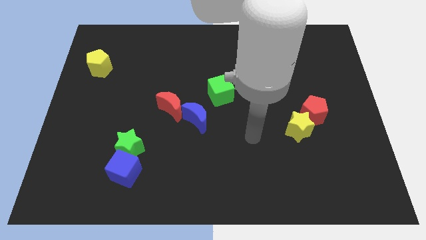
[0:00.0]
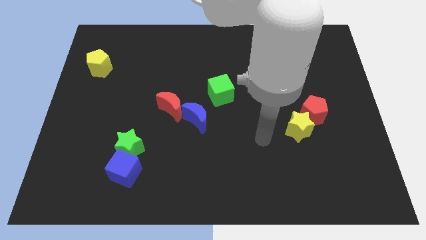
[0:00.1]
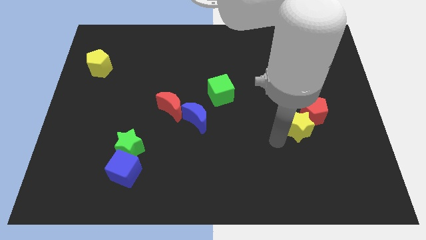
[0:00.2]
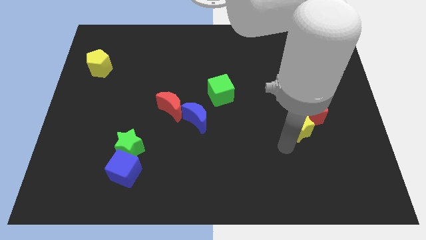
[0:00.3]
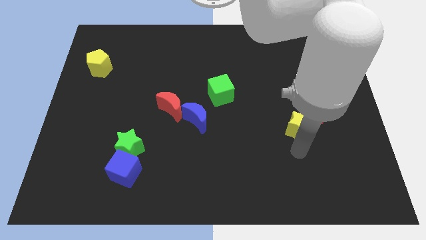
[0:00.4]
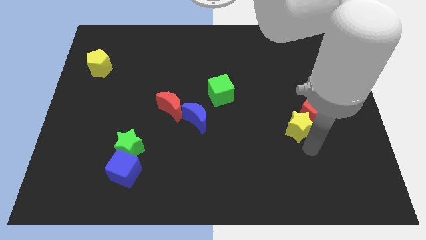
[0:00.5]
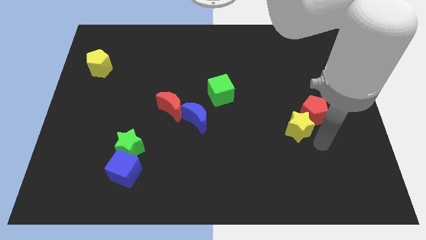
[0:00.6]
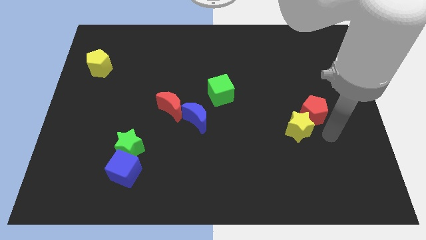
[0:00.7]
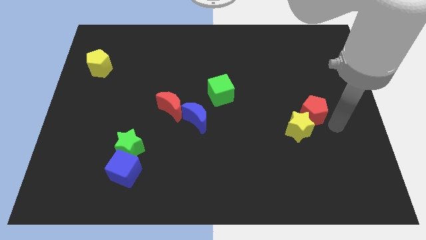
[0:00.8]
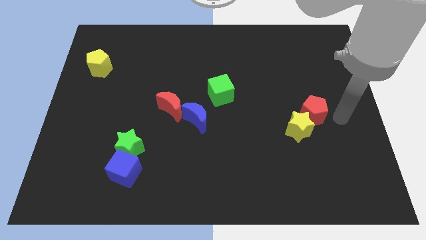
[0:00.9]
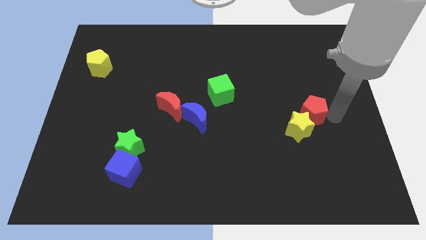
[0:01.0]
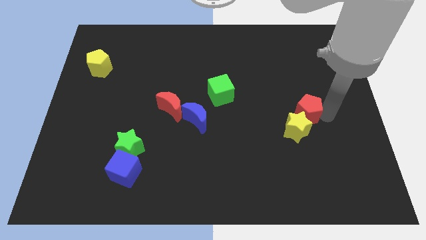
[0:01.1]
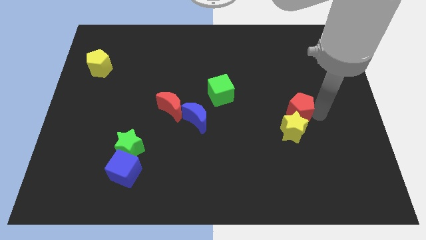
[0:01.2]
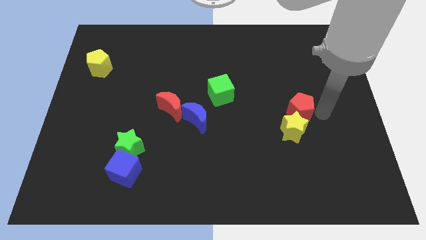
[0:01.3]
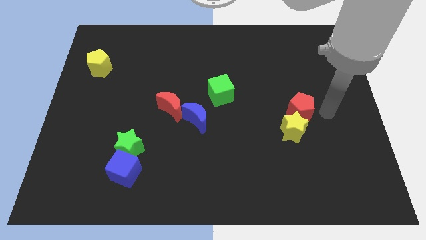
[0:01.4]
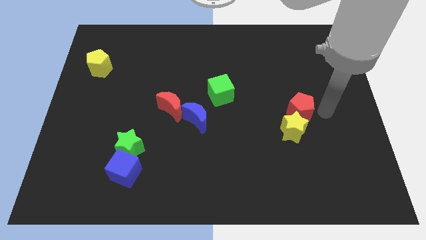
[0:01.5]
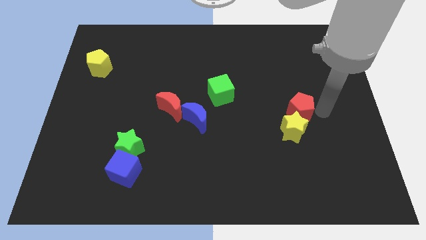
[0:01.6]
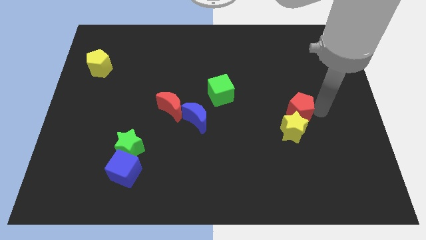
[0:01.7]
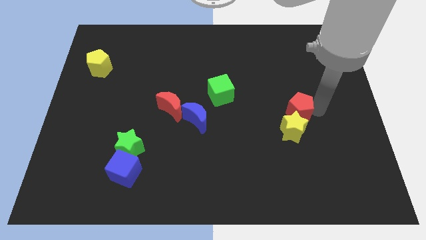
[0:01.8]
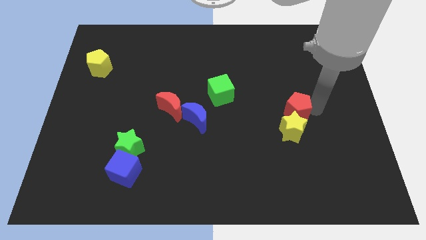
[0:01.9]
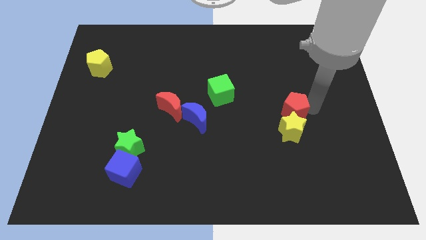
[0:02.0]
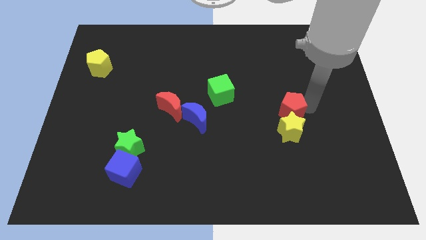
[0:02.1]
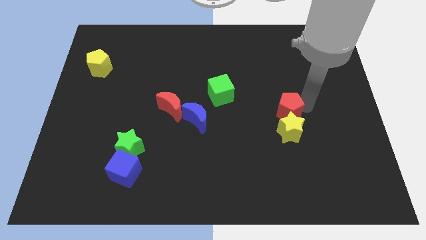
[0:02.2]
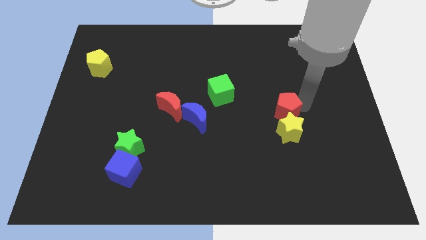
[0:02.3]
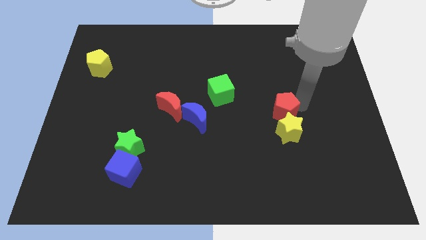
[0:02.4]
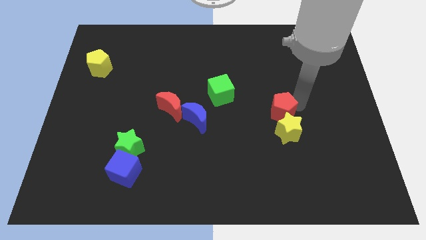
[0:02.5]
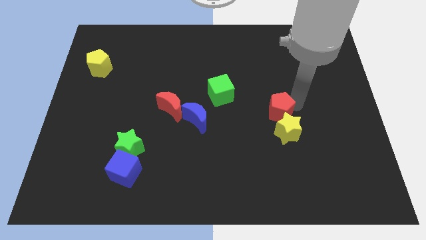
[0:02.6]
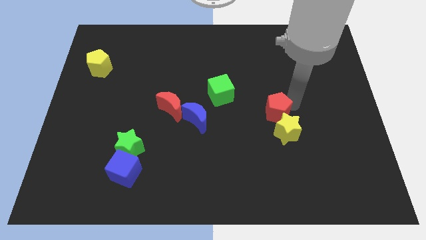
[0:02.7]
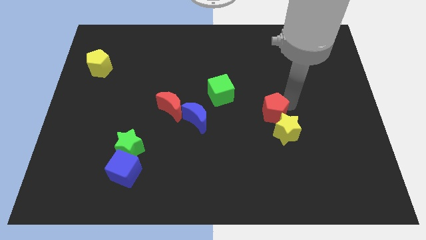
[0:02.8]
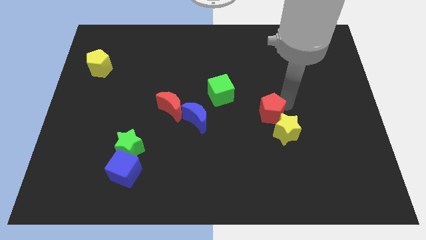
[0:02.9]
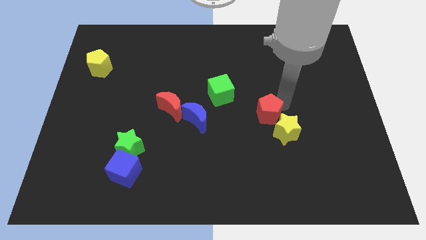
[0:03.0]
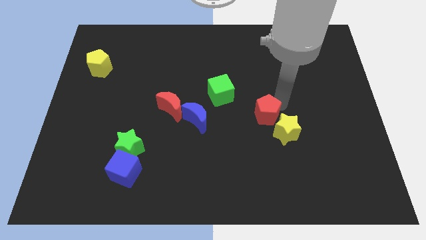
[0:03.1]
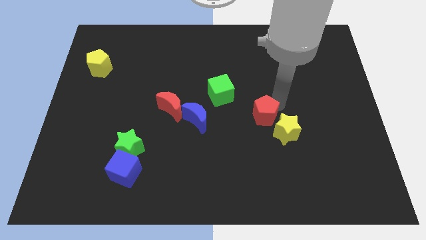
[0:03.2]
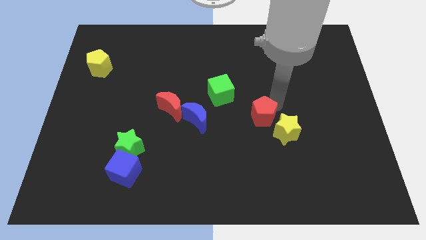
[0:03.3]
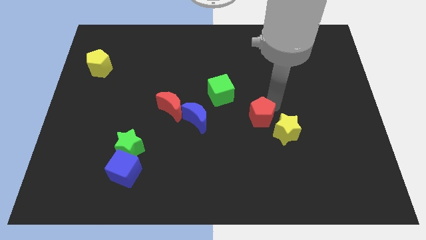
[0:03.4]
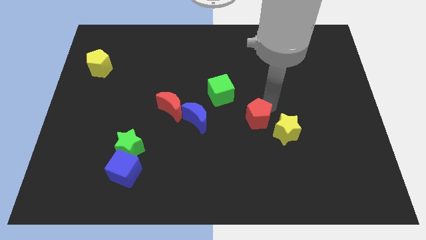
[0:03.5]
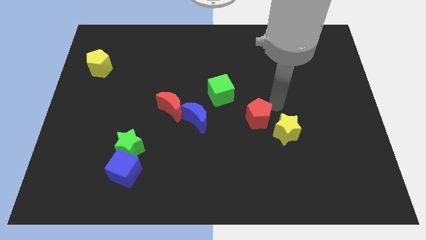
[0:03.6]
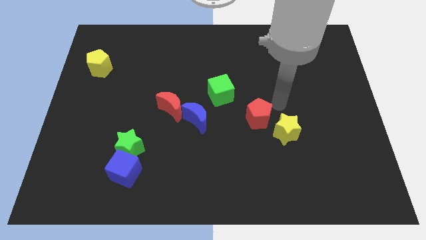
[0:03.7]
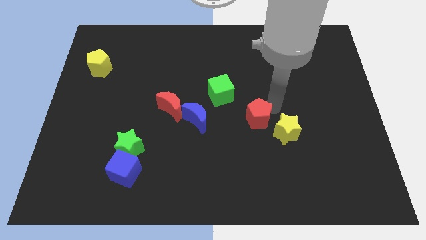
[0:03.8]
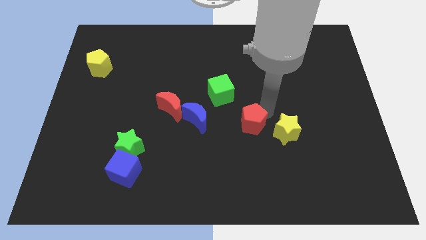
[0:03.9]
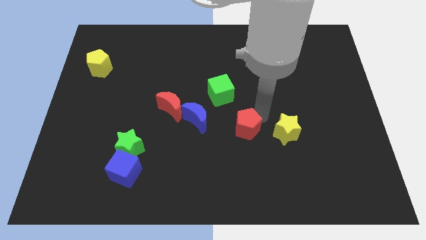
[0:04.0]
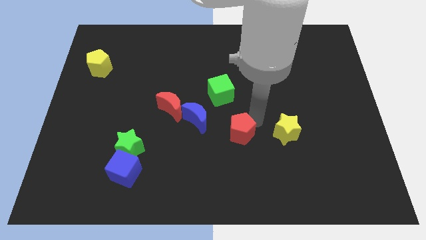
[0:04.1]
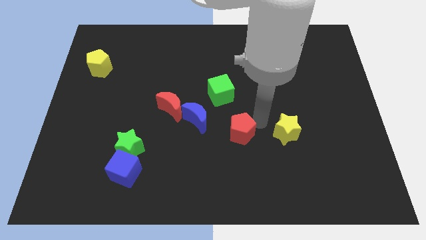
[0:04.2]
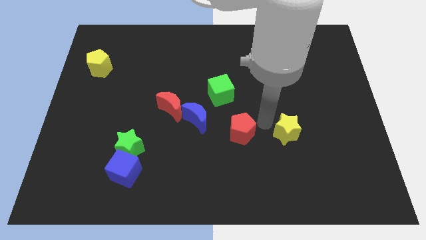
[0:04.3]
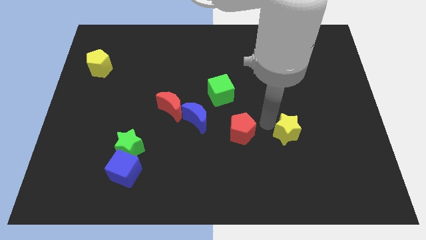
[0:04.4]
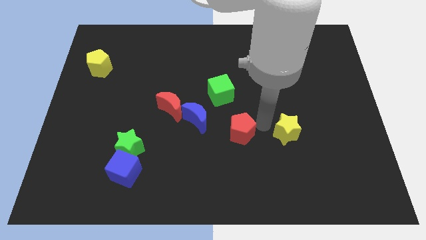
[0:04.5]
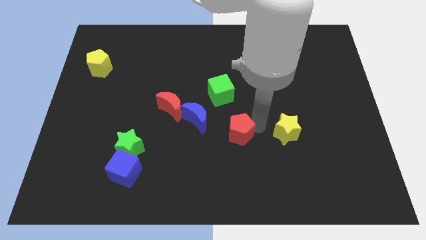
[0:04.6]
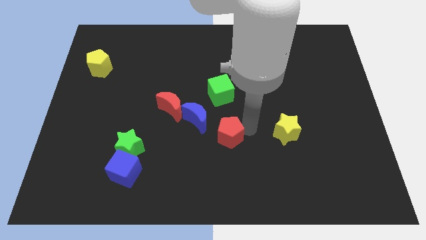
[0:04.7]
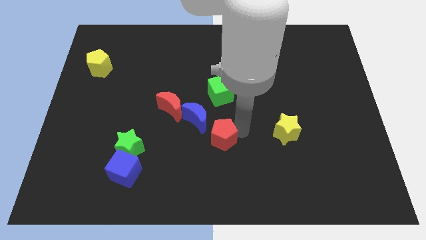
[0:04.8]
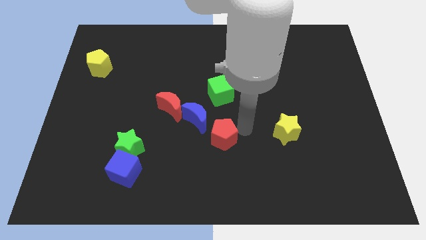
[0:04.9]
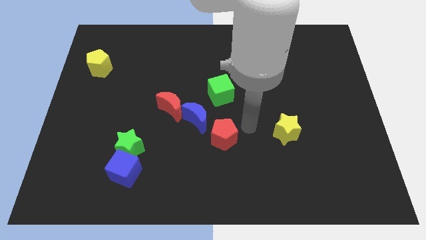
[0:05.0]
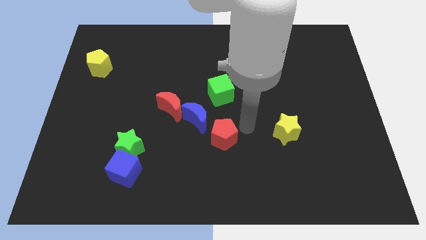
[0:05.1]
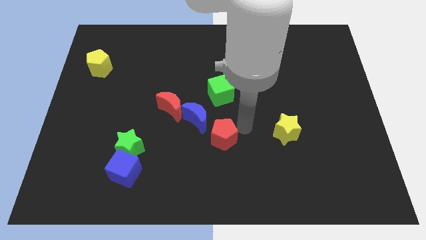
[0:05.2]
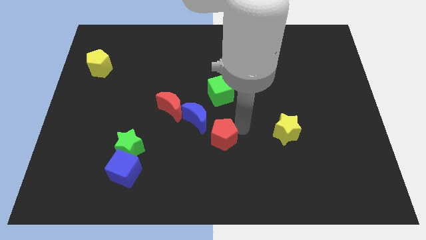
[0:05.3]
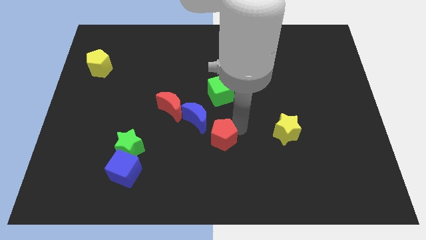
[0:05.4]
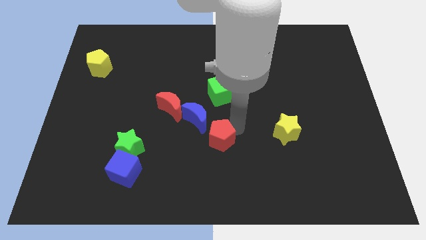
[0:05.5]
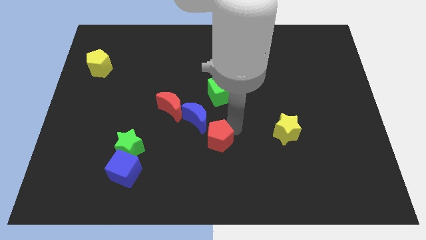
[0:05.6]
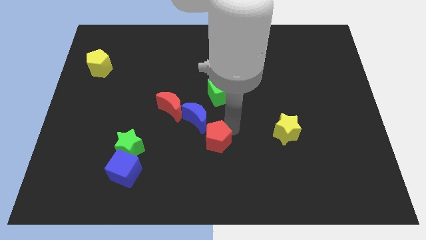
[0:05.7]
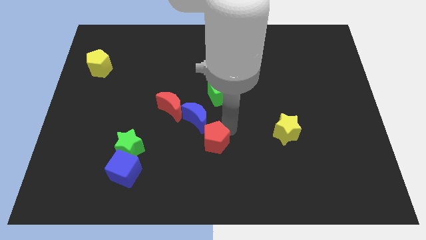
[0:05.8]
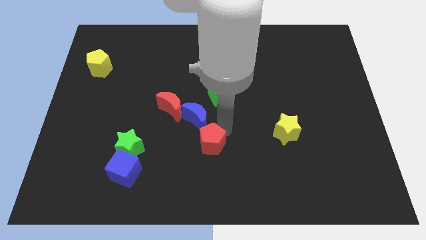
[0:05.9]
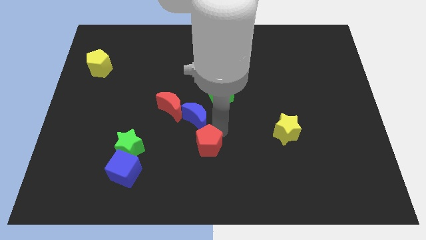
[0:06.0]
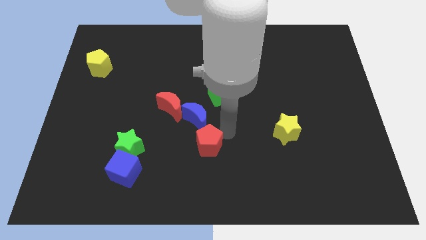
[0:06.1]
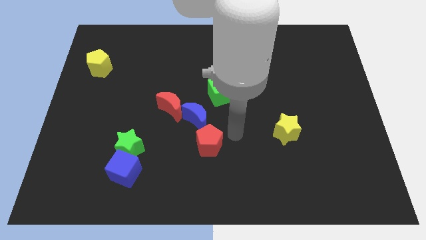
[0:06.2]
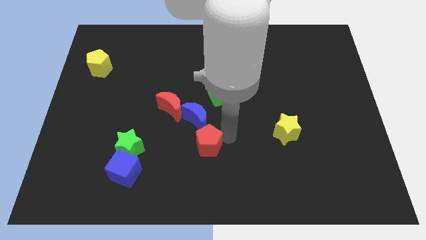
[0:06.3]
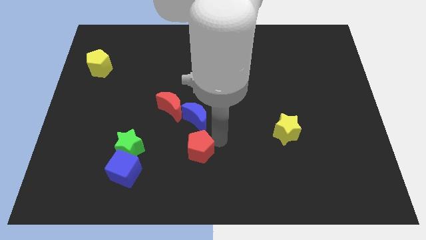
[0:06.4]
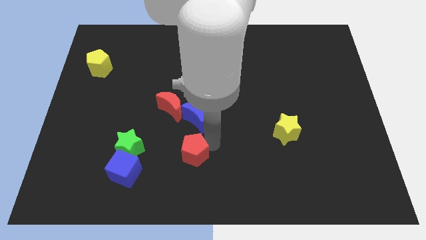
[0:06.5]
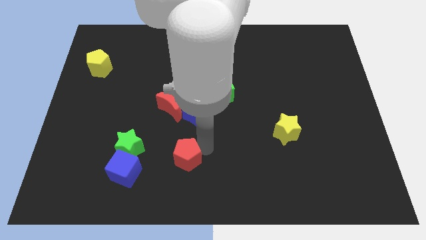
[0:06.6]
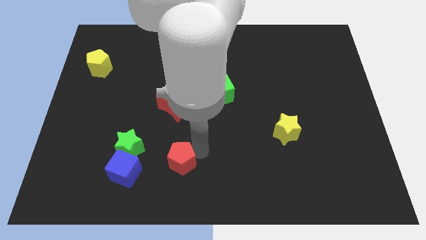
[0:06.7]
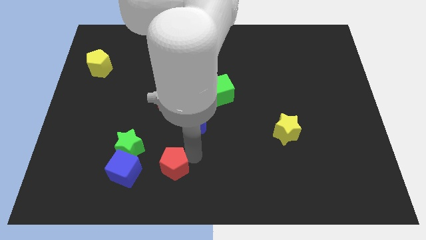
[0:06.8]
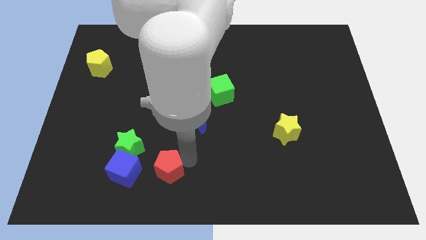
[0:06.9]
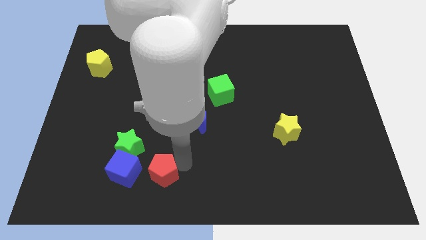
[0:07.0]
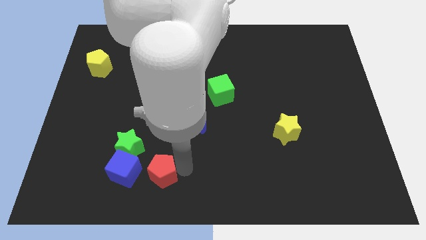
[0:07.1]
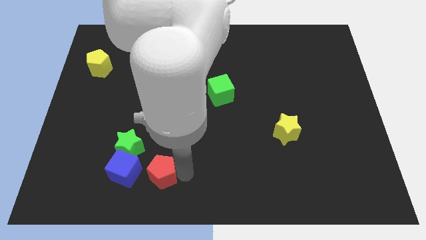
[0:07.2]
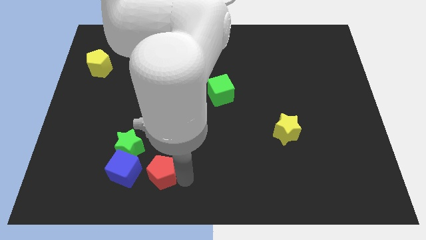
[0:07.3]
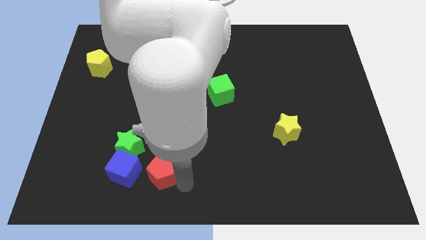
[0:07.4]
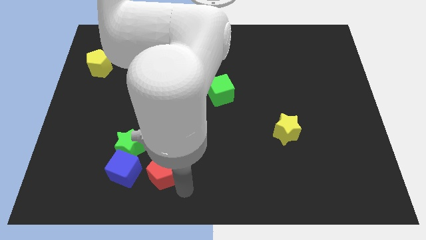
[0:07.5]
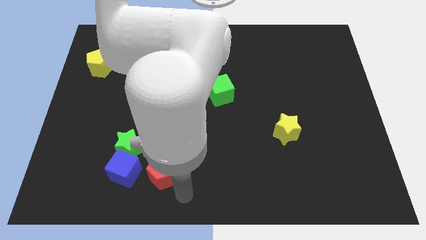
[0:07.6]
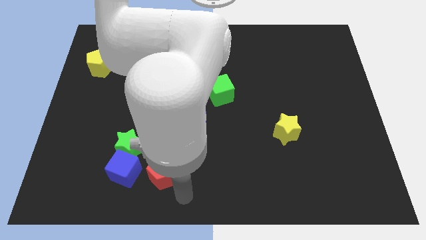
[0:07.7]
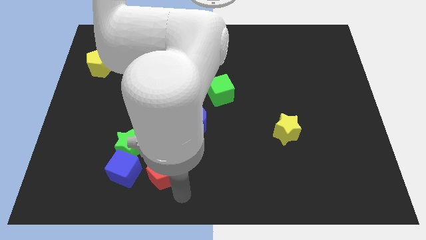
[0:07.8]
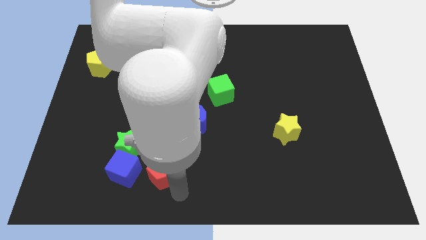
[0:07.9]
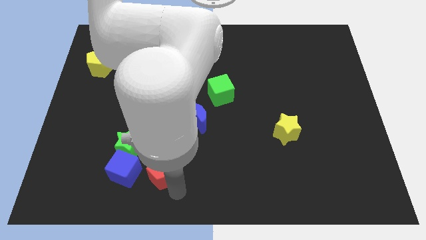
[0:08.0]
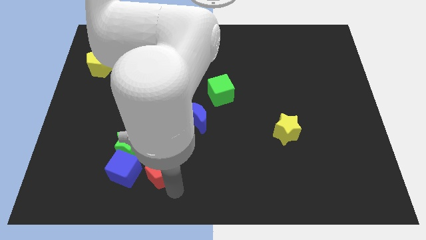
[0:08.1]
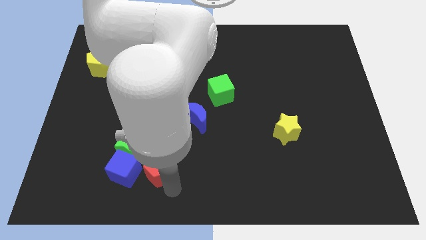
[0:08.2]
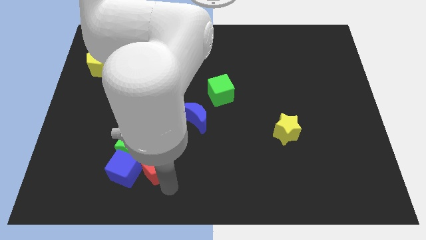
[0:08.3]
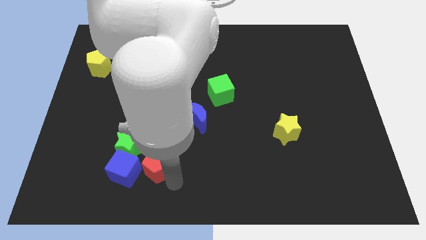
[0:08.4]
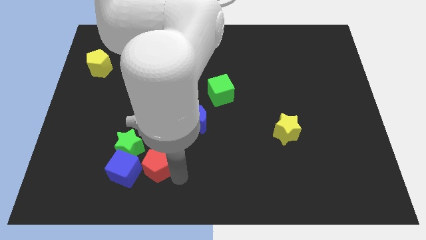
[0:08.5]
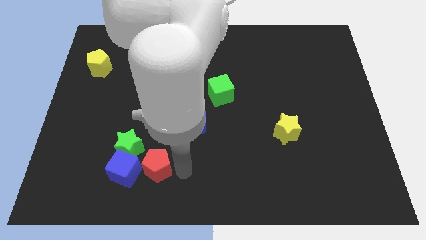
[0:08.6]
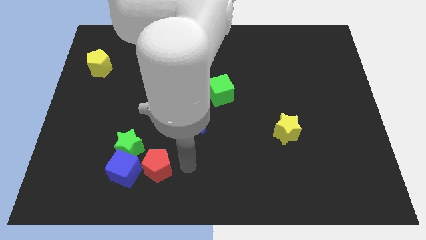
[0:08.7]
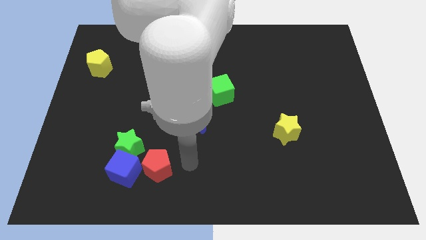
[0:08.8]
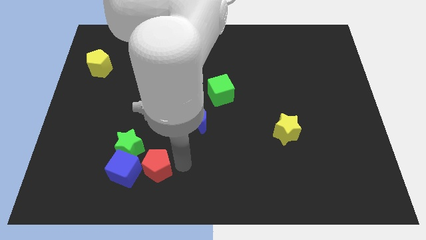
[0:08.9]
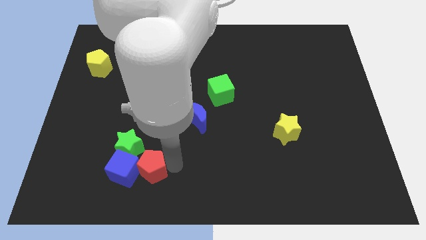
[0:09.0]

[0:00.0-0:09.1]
slide the red pentagon to the blue cube
